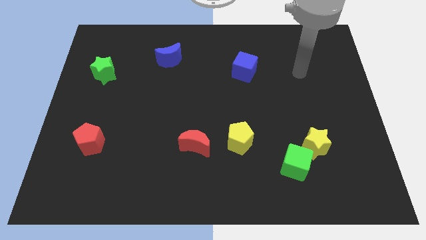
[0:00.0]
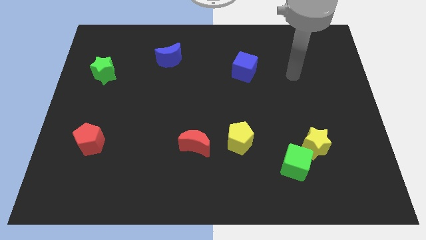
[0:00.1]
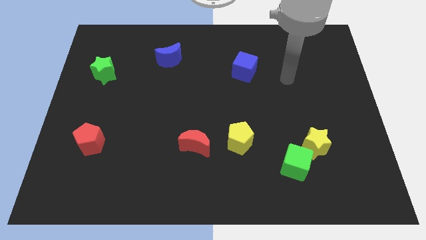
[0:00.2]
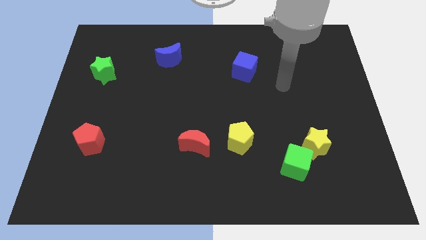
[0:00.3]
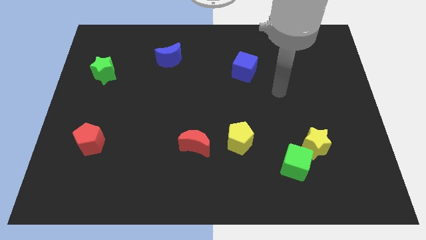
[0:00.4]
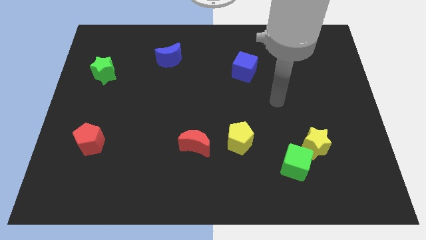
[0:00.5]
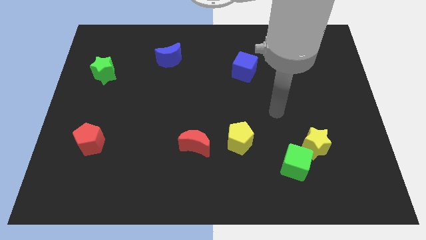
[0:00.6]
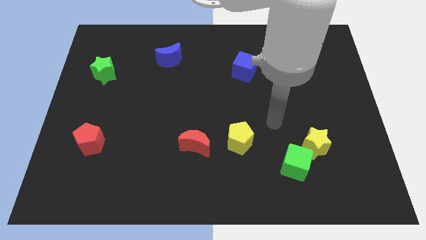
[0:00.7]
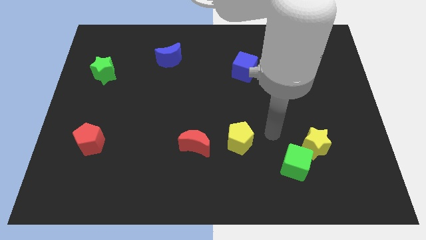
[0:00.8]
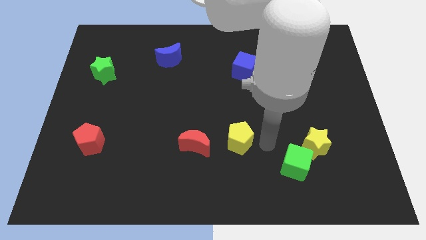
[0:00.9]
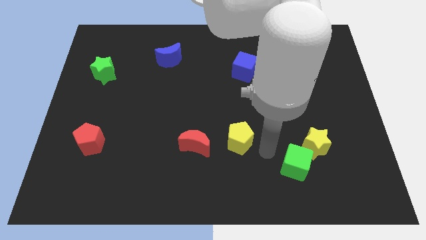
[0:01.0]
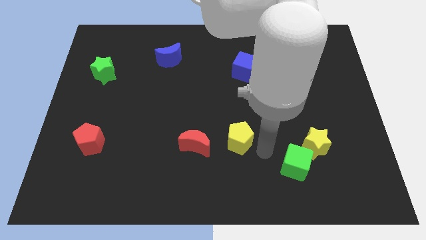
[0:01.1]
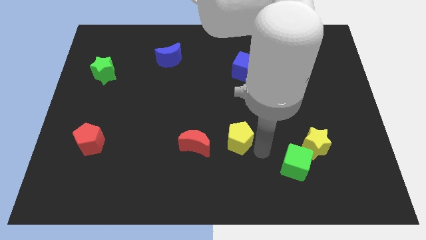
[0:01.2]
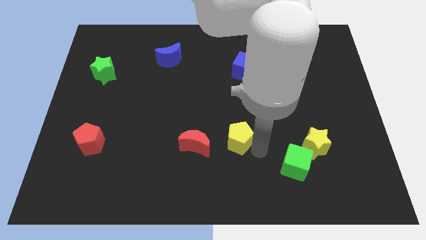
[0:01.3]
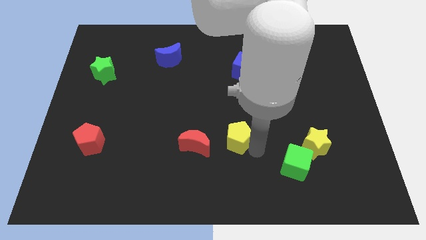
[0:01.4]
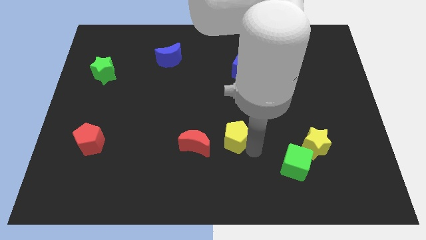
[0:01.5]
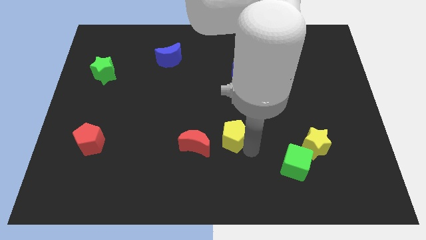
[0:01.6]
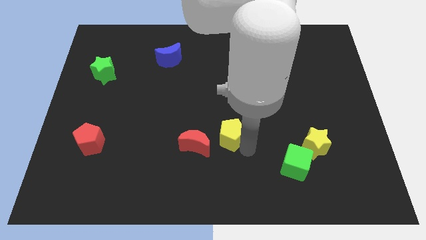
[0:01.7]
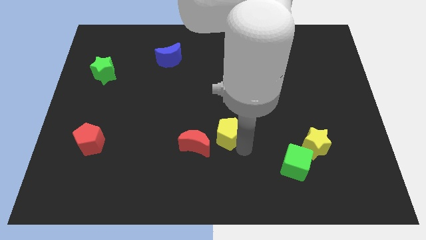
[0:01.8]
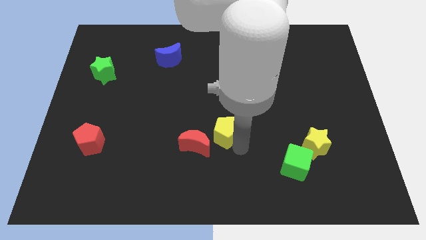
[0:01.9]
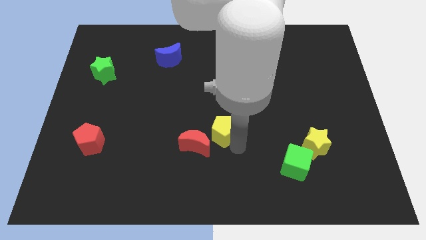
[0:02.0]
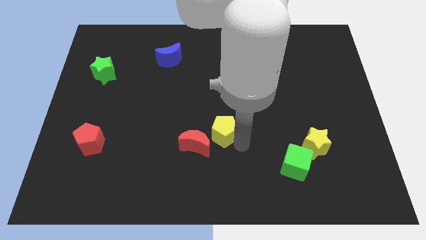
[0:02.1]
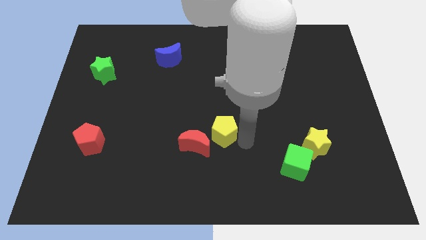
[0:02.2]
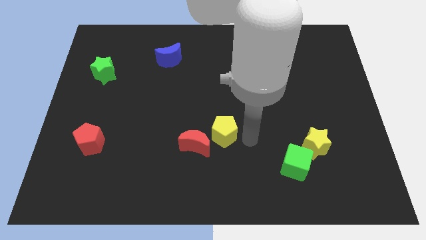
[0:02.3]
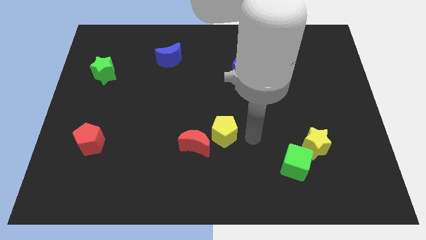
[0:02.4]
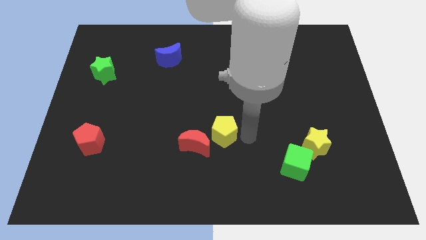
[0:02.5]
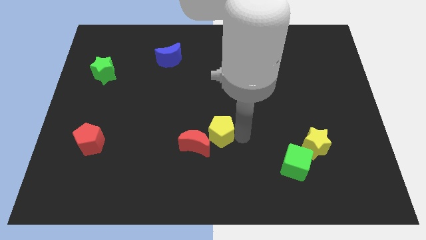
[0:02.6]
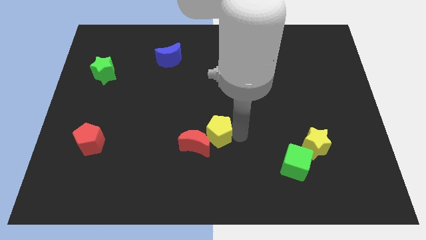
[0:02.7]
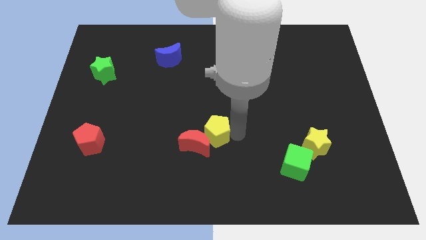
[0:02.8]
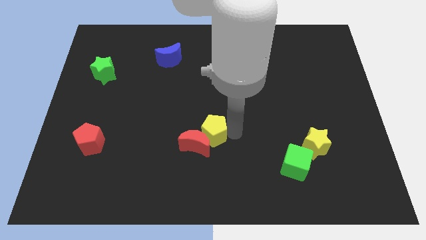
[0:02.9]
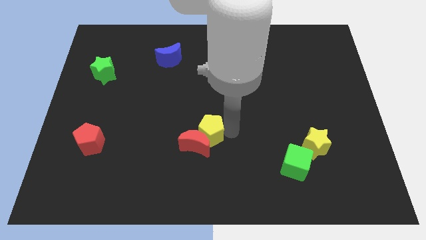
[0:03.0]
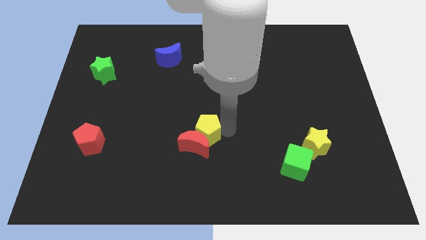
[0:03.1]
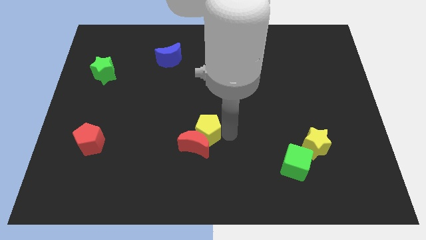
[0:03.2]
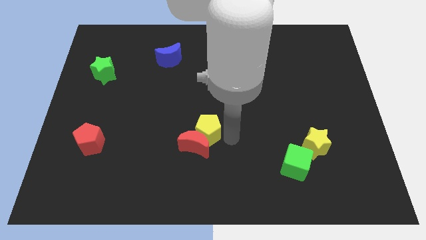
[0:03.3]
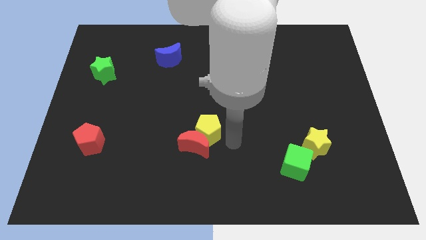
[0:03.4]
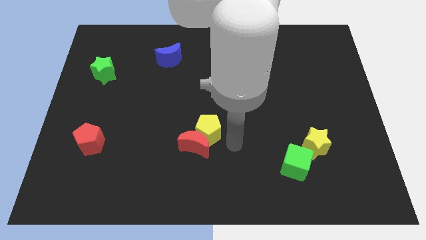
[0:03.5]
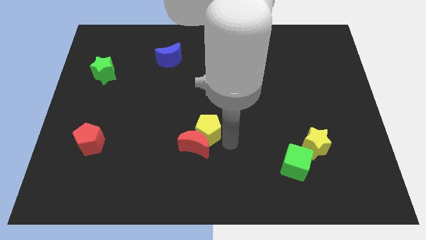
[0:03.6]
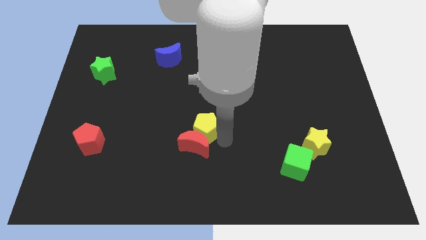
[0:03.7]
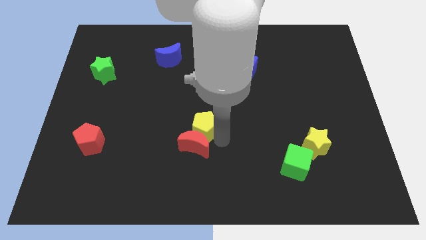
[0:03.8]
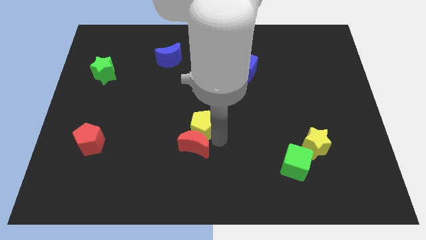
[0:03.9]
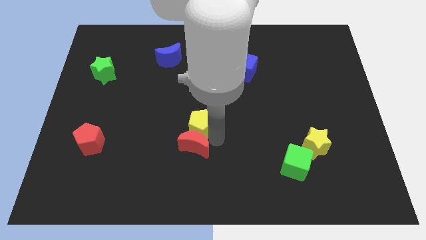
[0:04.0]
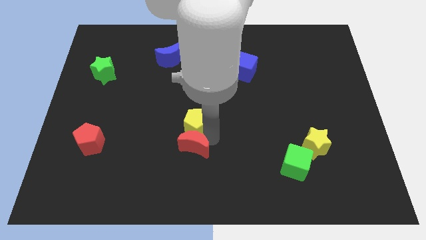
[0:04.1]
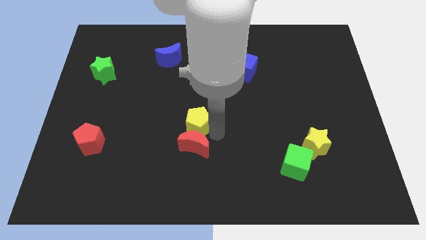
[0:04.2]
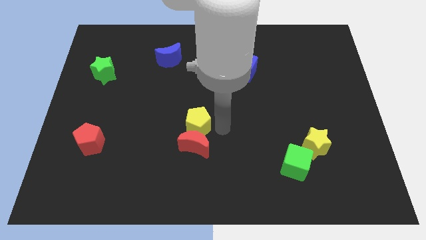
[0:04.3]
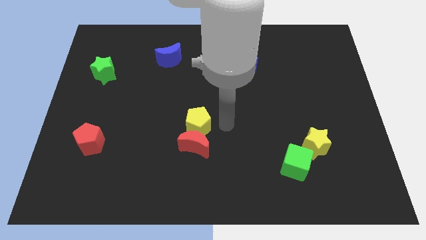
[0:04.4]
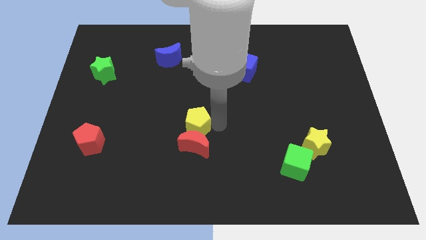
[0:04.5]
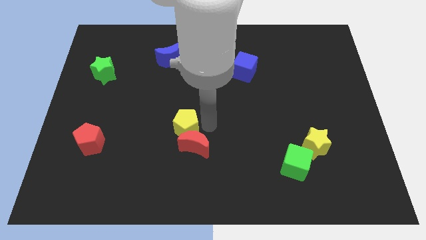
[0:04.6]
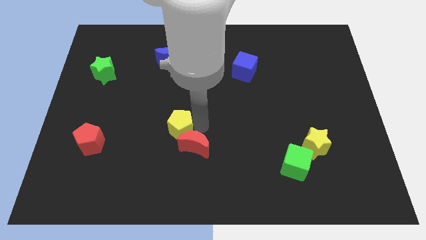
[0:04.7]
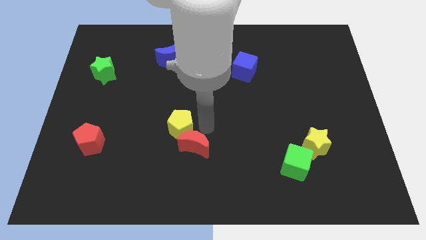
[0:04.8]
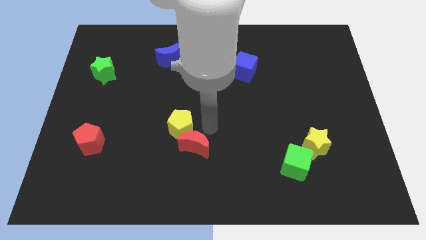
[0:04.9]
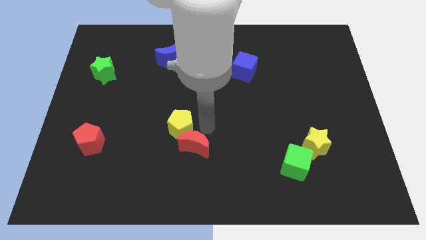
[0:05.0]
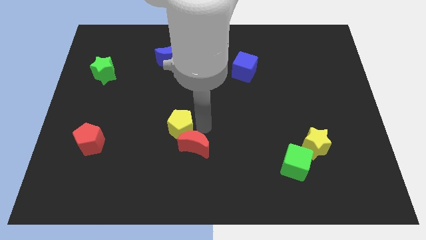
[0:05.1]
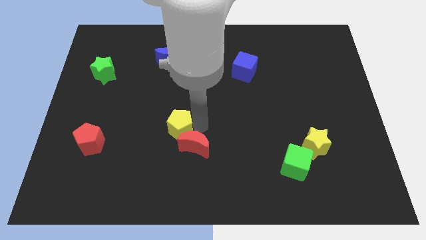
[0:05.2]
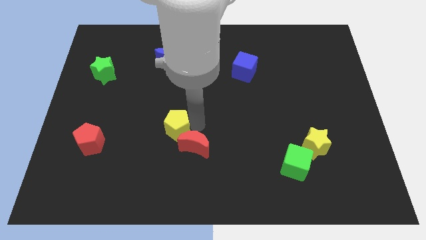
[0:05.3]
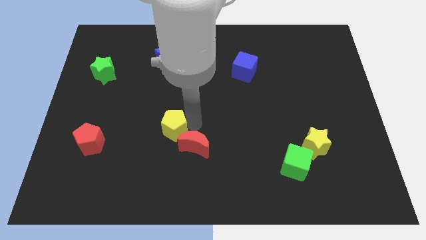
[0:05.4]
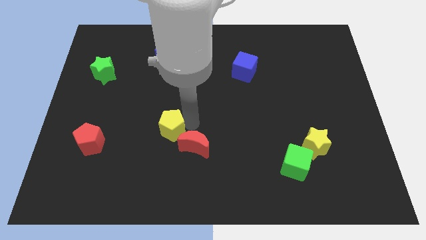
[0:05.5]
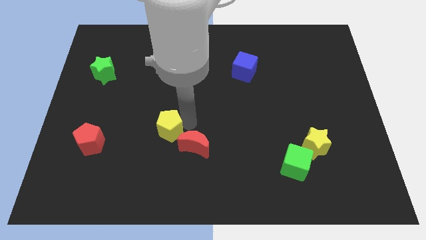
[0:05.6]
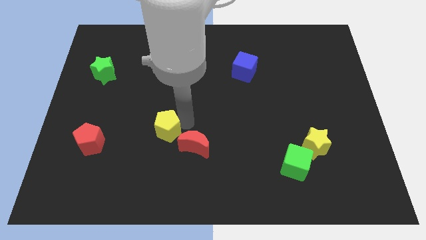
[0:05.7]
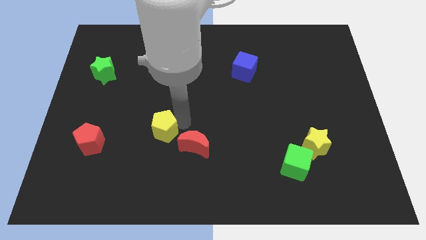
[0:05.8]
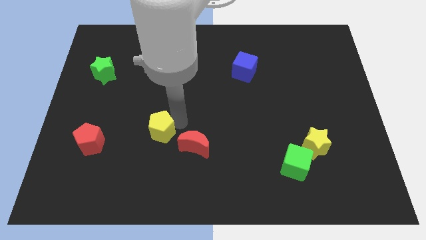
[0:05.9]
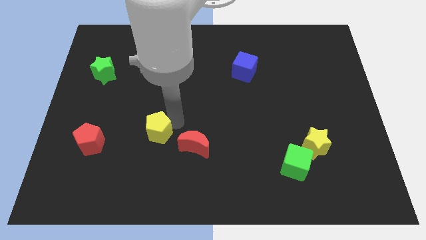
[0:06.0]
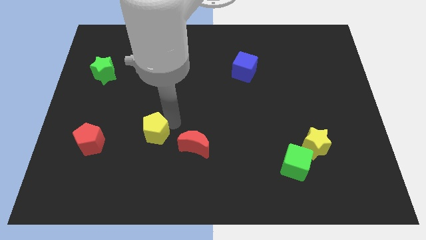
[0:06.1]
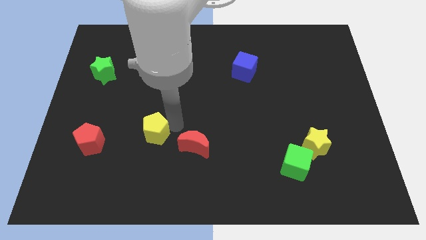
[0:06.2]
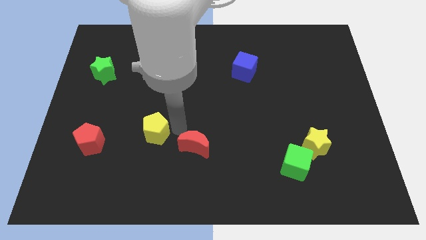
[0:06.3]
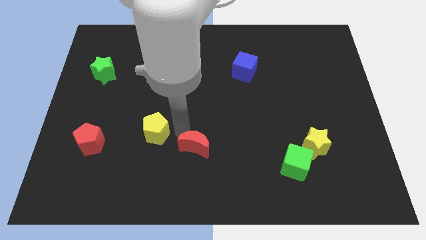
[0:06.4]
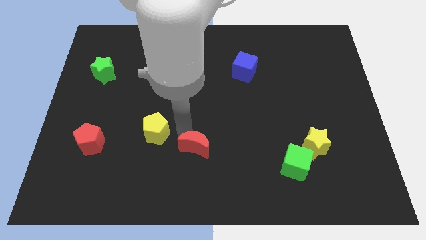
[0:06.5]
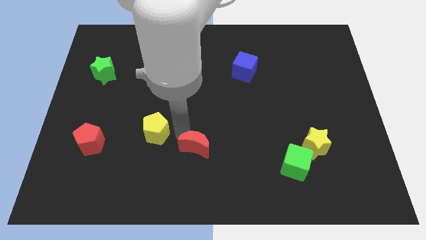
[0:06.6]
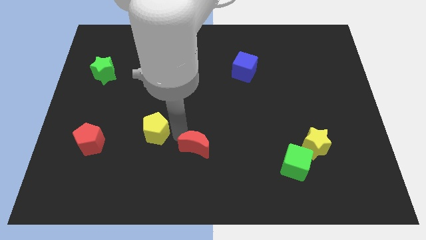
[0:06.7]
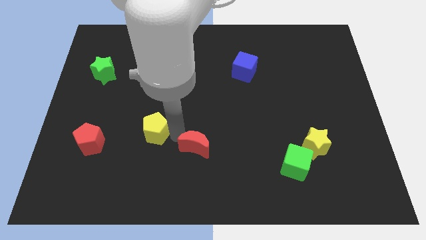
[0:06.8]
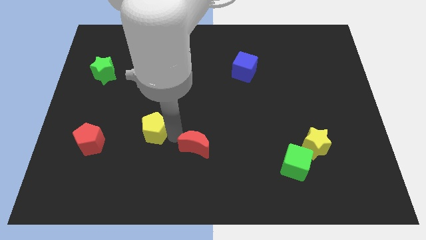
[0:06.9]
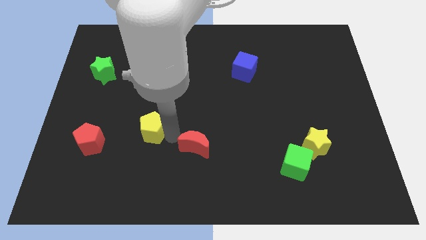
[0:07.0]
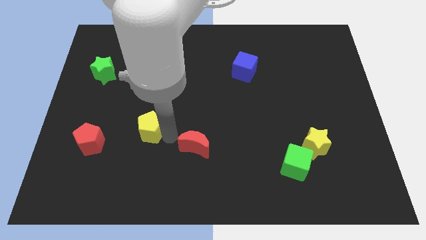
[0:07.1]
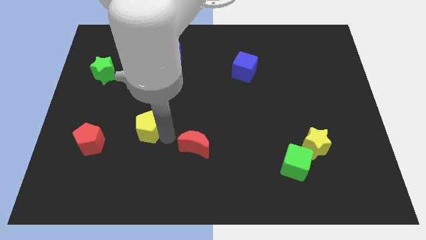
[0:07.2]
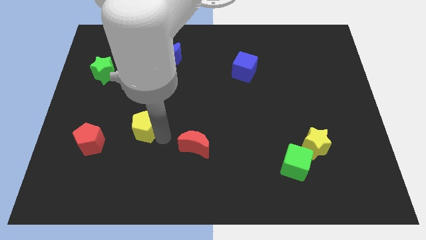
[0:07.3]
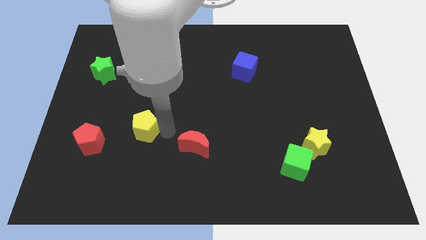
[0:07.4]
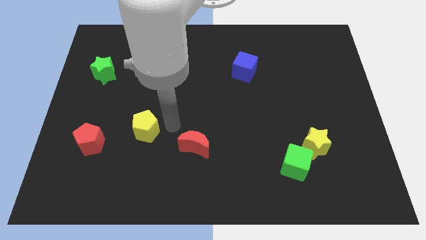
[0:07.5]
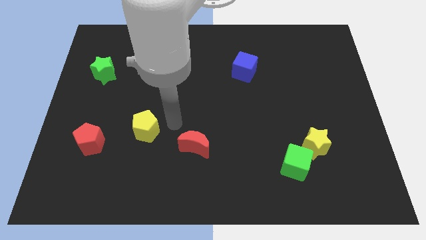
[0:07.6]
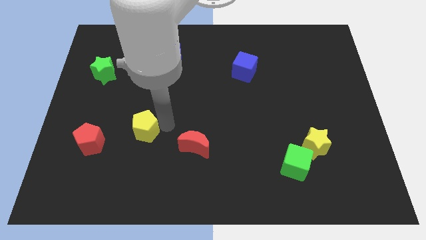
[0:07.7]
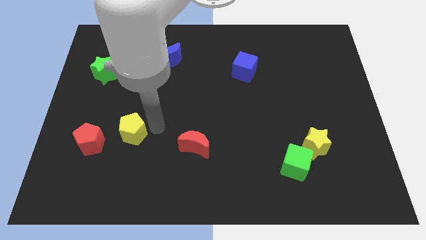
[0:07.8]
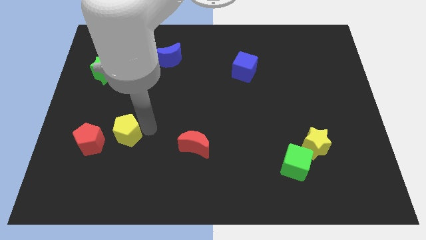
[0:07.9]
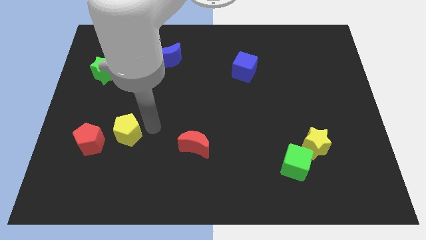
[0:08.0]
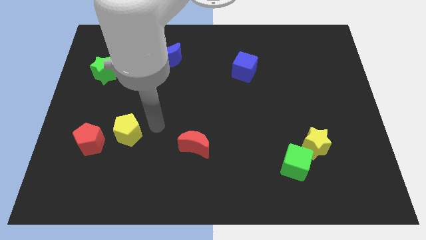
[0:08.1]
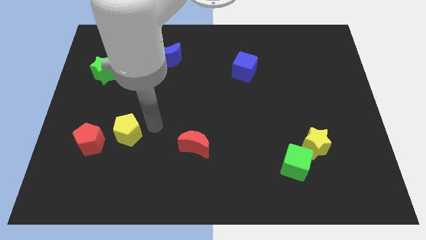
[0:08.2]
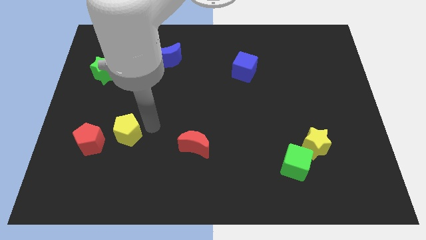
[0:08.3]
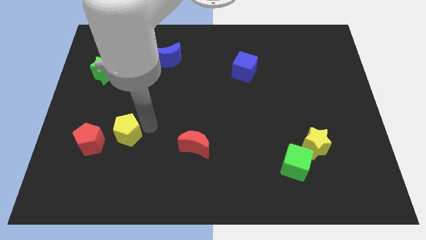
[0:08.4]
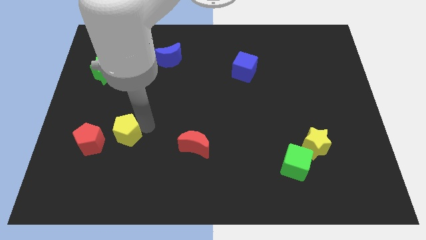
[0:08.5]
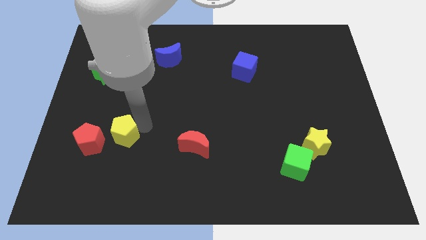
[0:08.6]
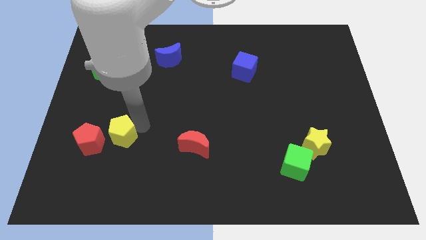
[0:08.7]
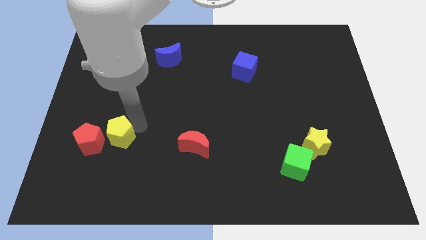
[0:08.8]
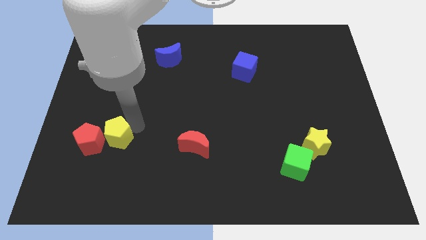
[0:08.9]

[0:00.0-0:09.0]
put the yellow pentagon next to the red pentagon
